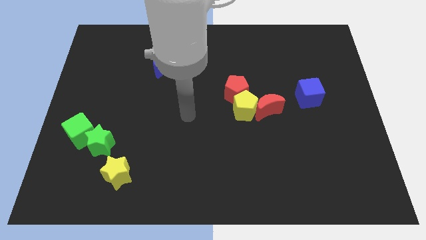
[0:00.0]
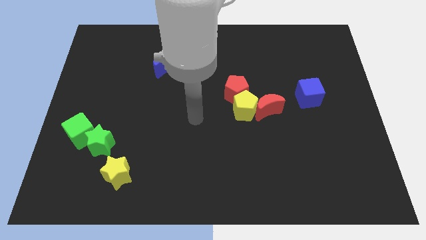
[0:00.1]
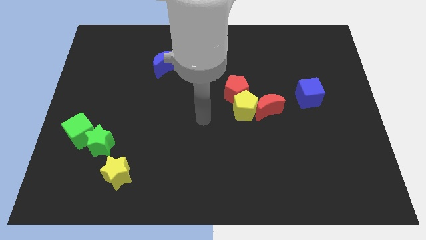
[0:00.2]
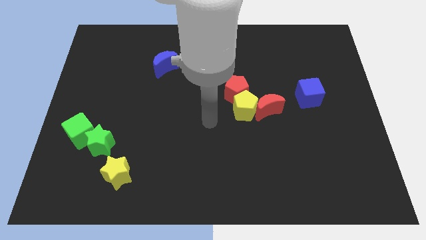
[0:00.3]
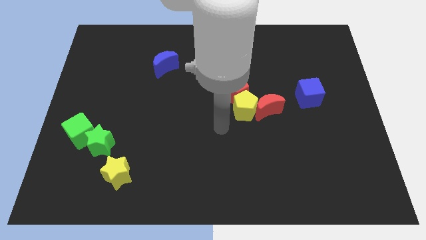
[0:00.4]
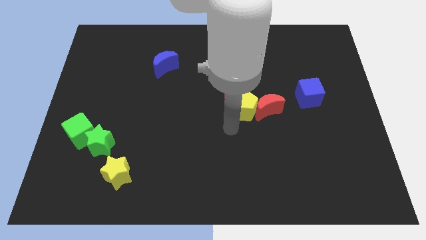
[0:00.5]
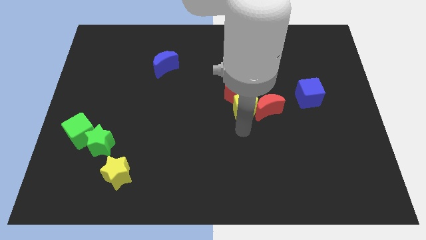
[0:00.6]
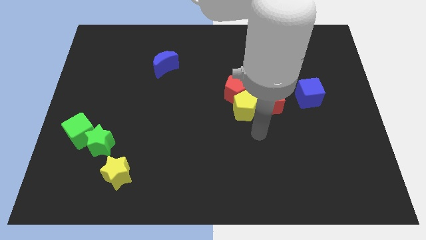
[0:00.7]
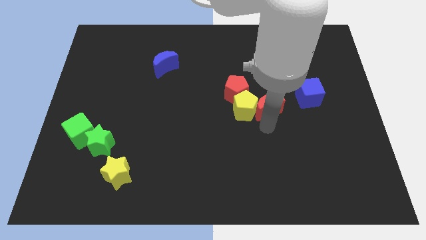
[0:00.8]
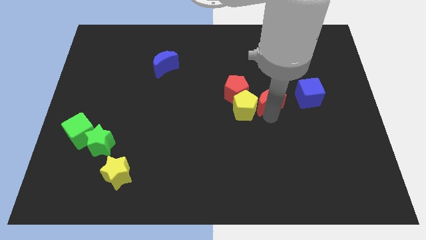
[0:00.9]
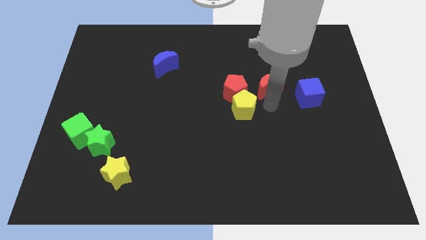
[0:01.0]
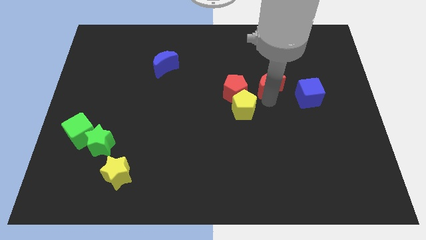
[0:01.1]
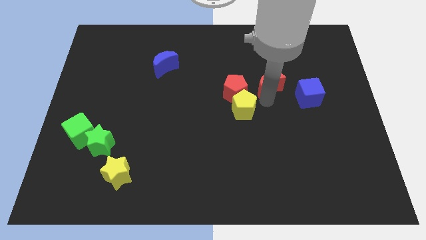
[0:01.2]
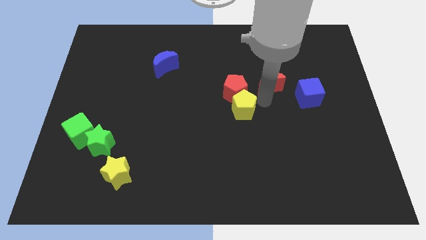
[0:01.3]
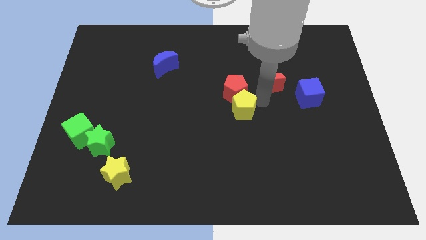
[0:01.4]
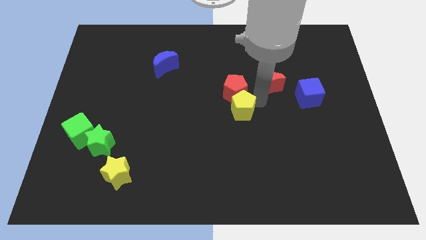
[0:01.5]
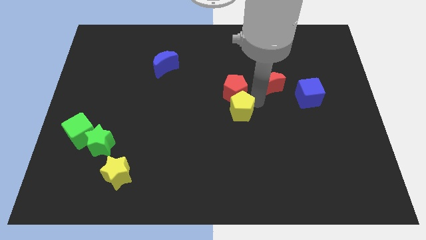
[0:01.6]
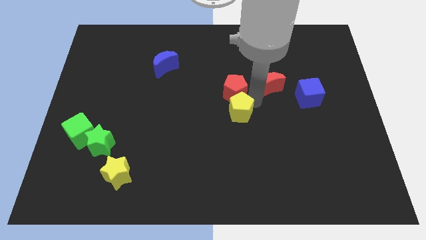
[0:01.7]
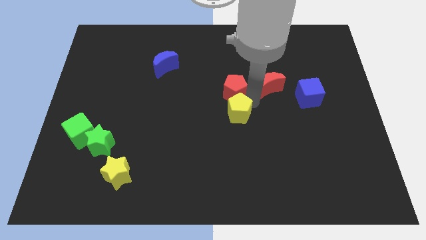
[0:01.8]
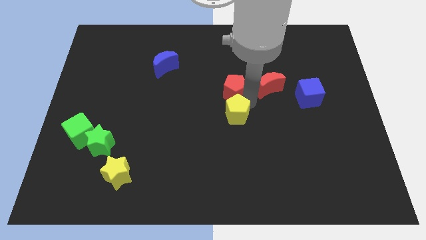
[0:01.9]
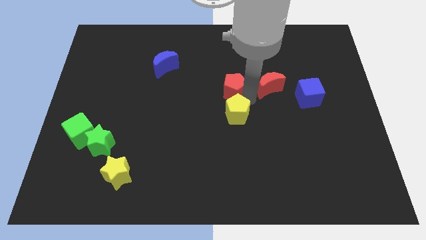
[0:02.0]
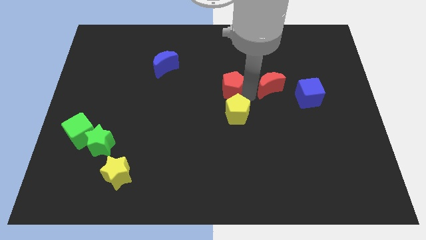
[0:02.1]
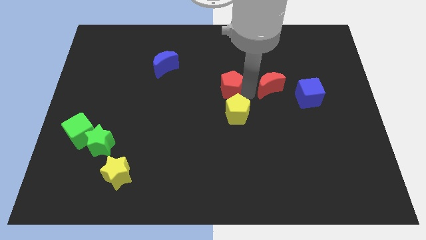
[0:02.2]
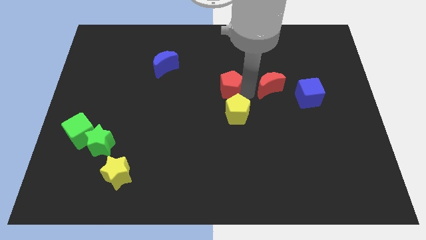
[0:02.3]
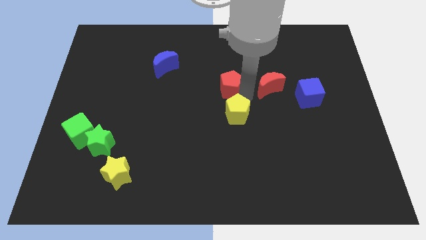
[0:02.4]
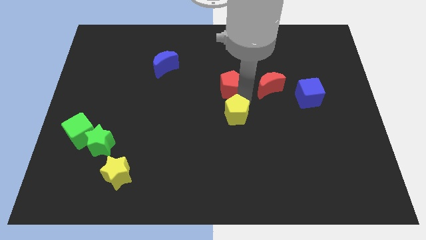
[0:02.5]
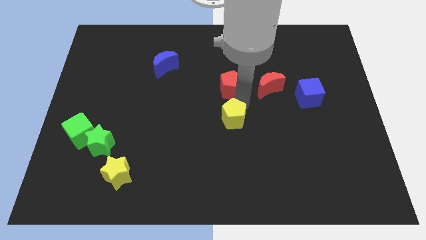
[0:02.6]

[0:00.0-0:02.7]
pull the yellow pentagon apart from the red moon and red pentagon

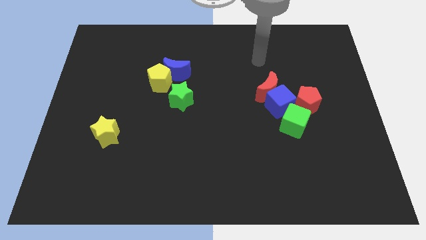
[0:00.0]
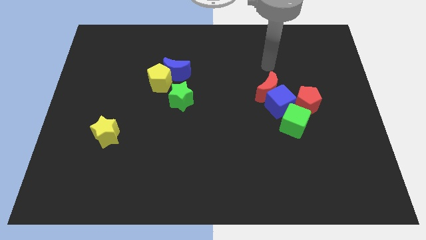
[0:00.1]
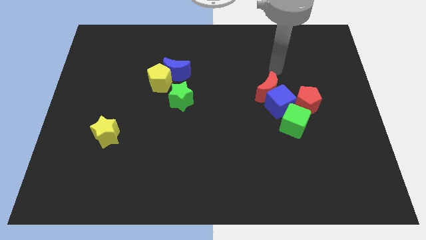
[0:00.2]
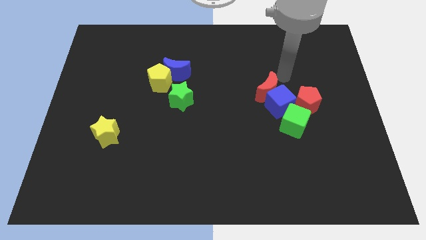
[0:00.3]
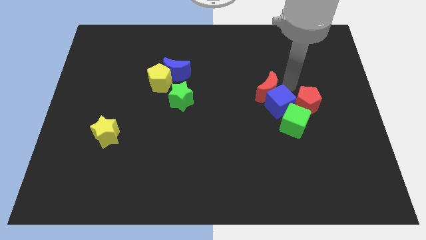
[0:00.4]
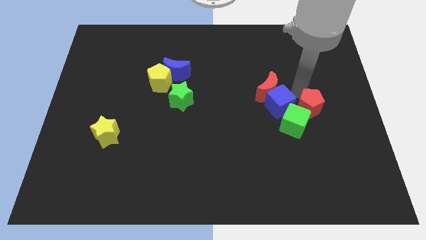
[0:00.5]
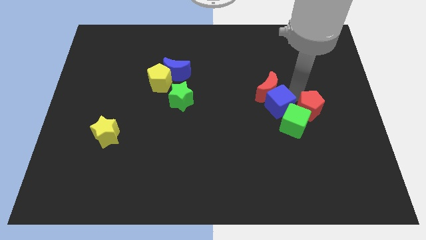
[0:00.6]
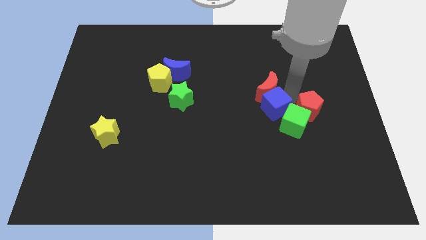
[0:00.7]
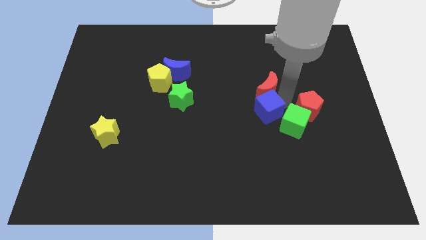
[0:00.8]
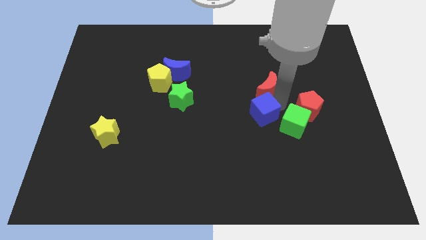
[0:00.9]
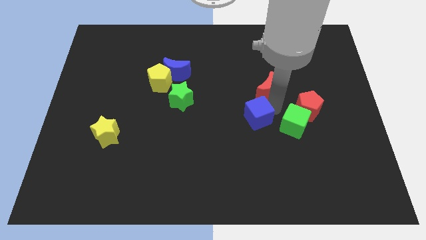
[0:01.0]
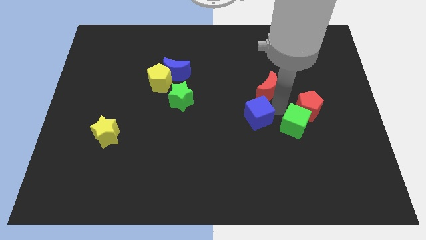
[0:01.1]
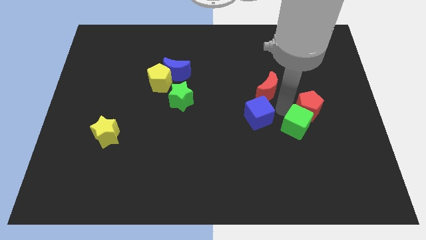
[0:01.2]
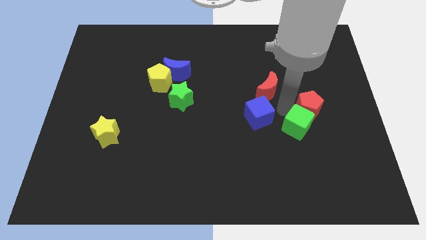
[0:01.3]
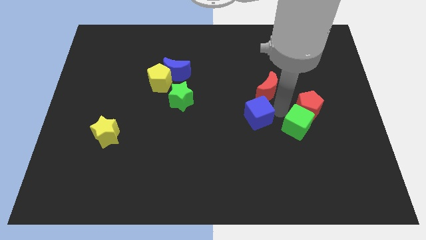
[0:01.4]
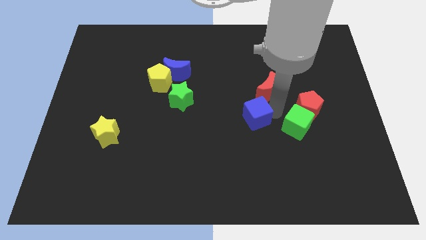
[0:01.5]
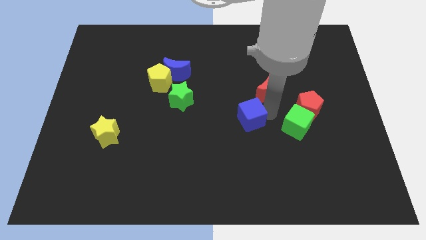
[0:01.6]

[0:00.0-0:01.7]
pull the blue cube apart from the group of blocks

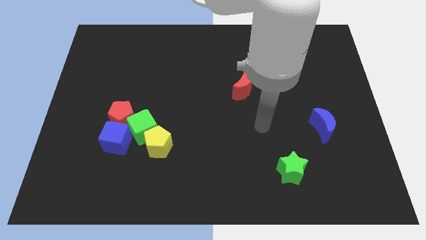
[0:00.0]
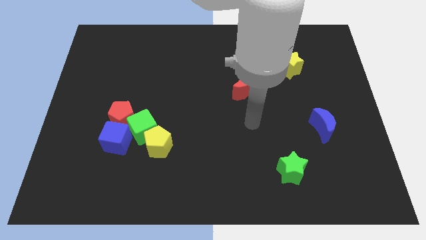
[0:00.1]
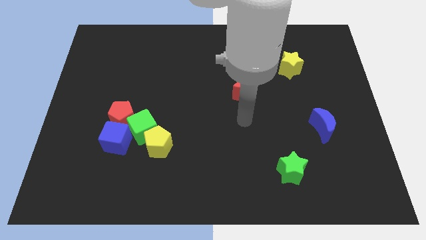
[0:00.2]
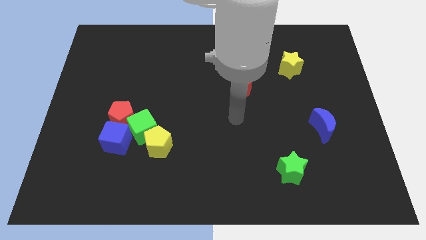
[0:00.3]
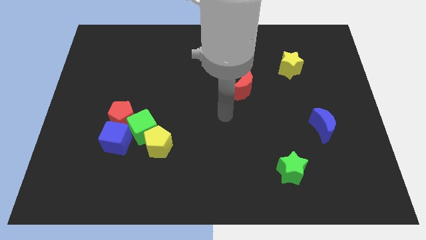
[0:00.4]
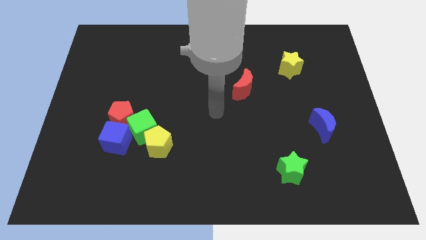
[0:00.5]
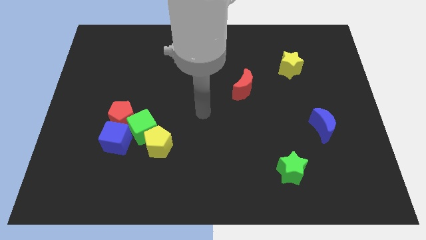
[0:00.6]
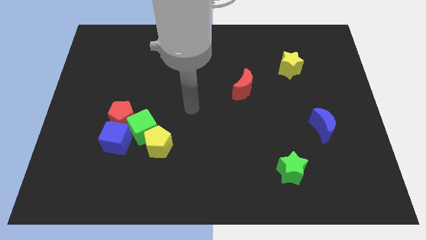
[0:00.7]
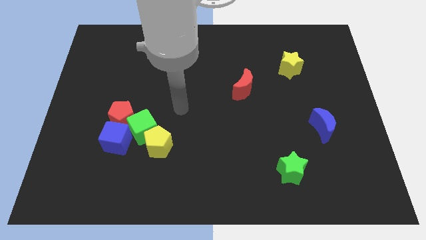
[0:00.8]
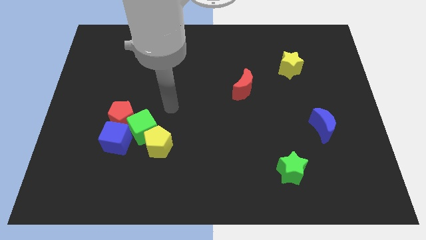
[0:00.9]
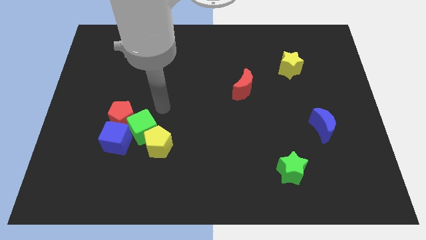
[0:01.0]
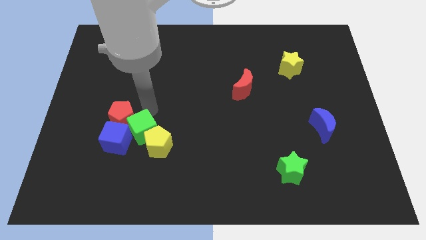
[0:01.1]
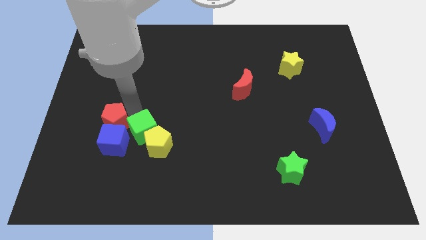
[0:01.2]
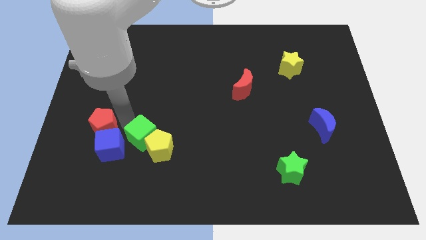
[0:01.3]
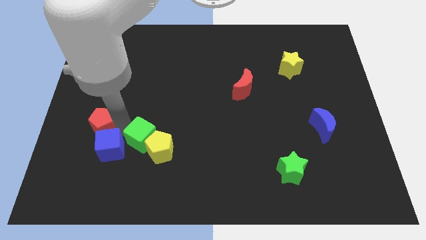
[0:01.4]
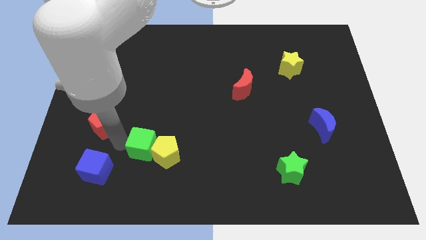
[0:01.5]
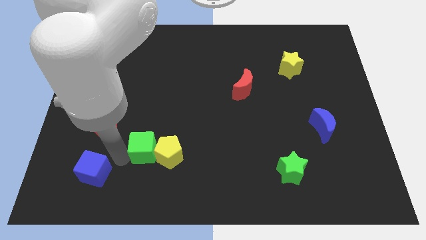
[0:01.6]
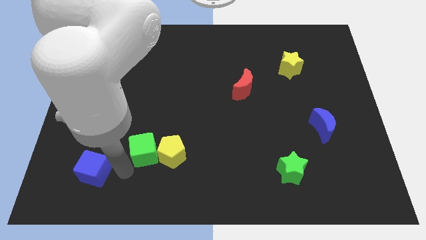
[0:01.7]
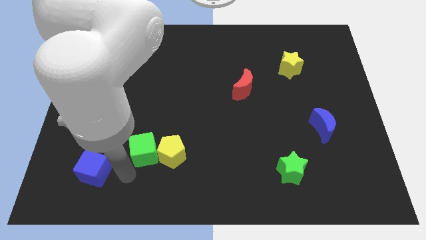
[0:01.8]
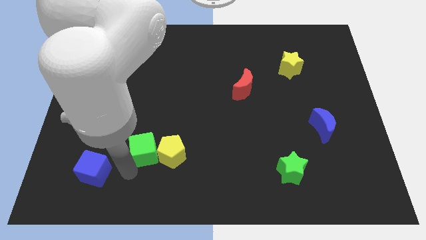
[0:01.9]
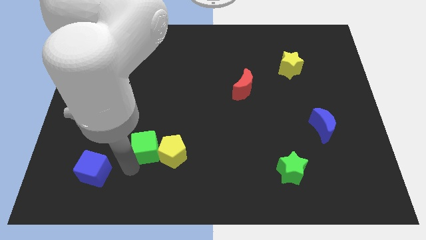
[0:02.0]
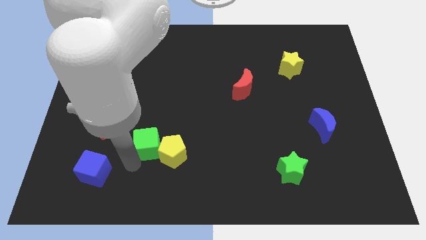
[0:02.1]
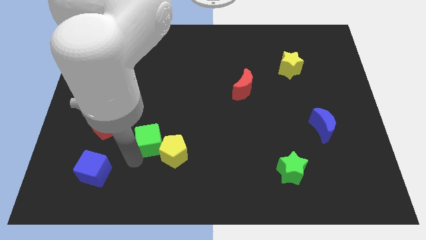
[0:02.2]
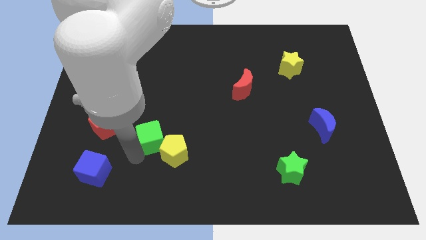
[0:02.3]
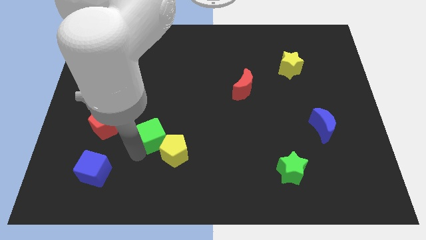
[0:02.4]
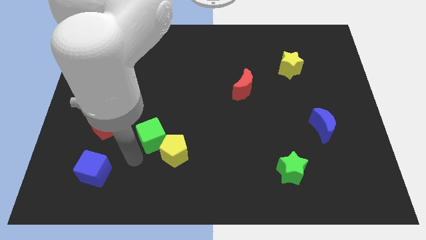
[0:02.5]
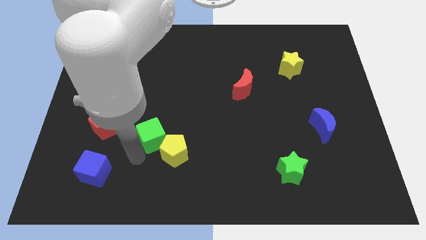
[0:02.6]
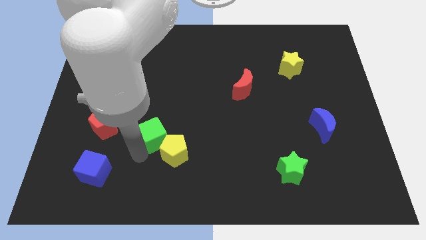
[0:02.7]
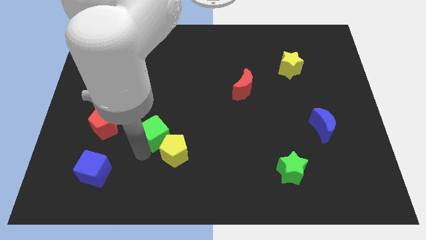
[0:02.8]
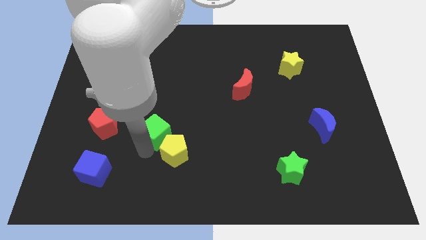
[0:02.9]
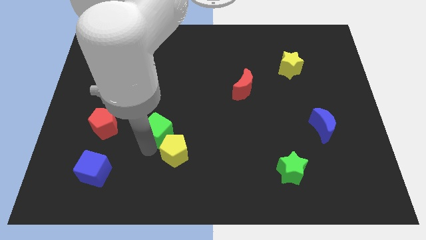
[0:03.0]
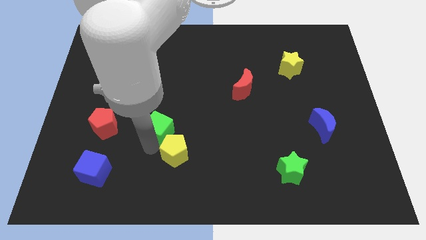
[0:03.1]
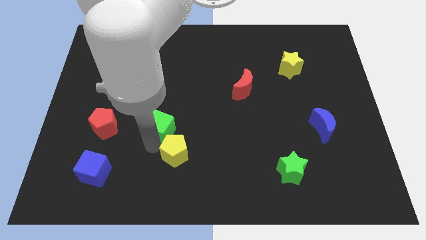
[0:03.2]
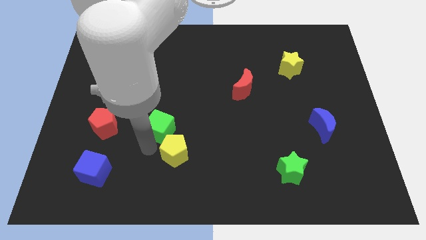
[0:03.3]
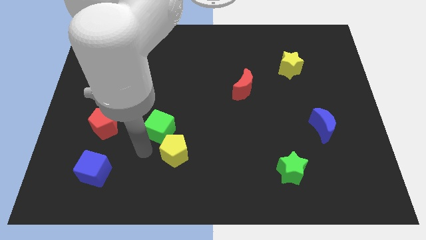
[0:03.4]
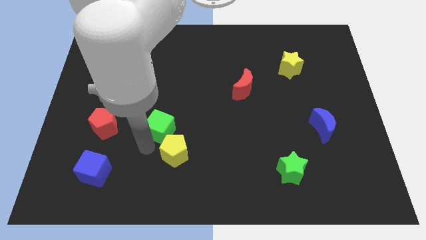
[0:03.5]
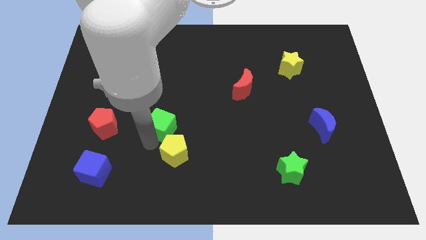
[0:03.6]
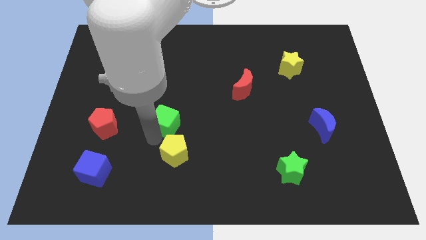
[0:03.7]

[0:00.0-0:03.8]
pull the green cube apart from the yellow pentagon, red pentagon, and blue cube

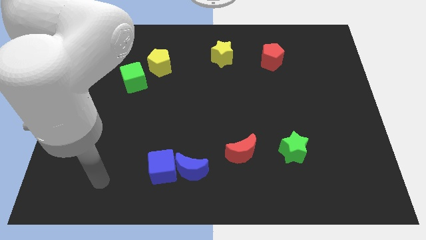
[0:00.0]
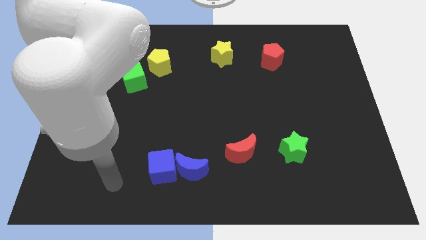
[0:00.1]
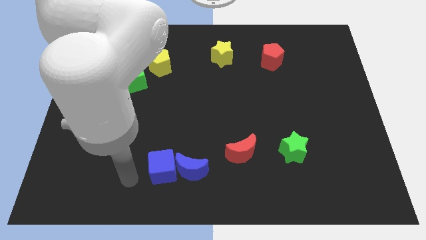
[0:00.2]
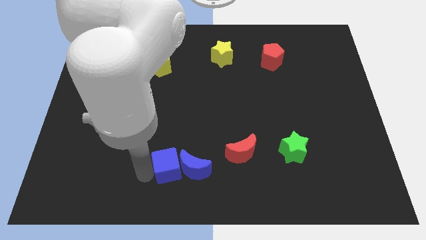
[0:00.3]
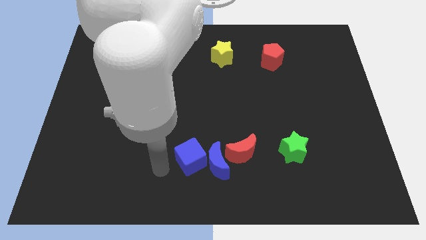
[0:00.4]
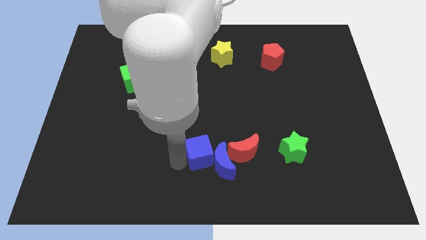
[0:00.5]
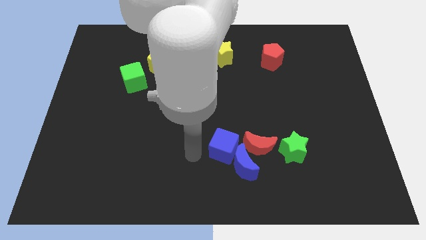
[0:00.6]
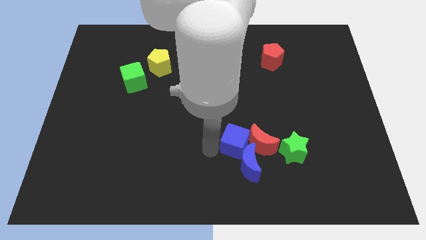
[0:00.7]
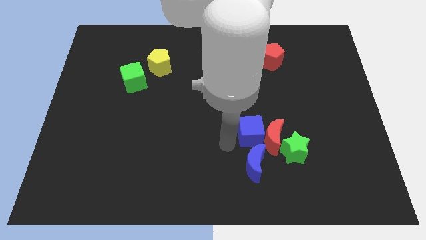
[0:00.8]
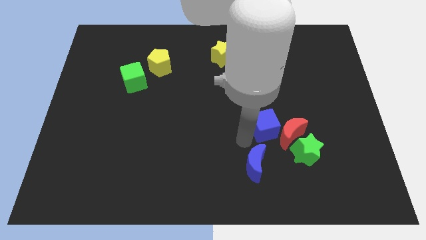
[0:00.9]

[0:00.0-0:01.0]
separate the blue moon from the blue cube

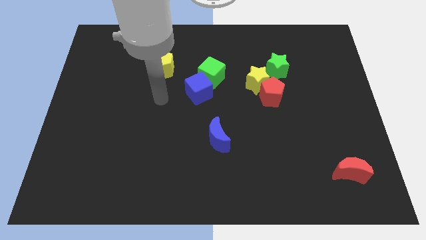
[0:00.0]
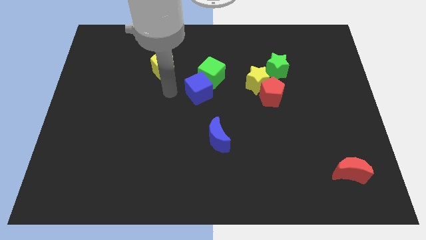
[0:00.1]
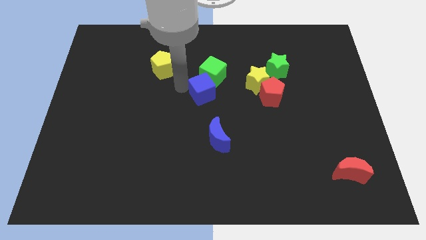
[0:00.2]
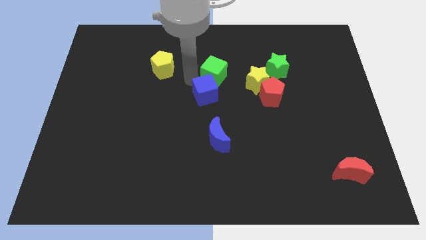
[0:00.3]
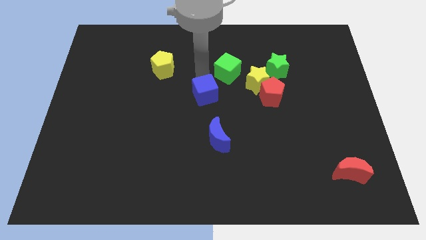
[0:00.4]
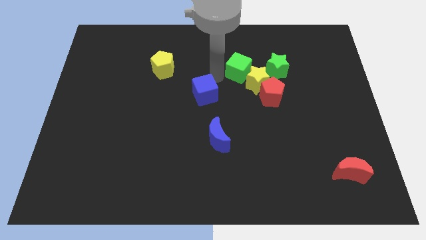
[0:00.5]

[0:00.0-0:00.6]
move the blue cube away from the green cube
